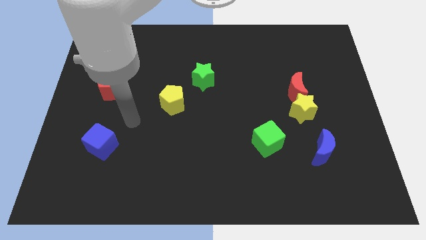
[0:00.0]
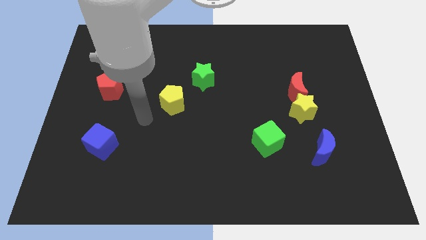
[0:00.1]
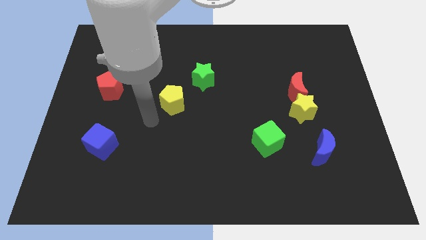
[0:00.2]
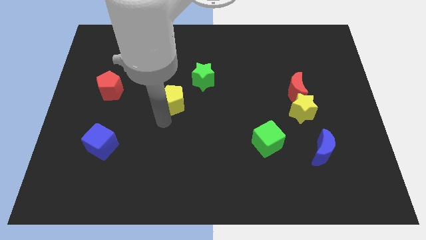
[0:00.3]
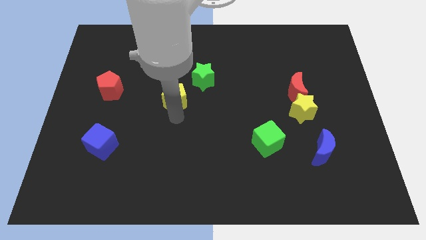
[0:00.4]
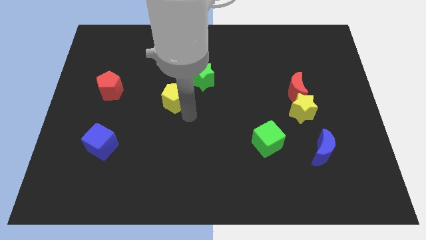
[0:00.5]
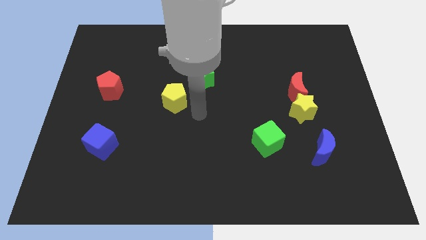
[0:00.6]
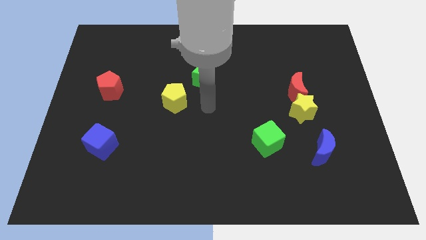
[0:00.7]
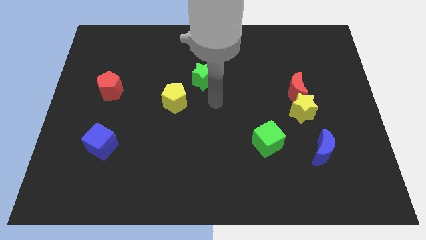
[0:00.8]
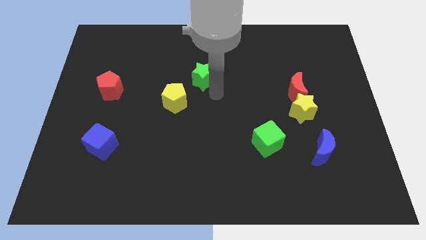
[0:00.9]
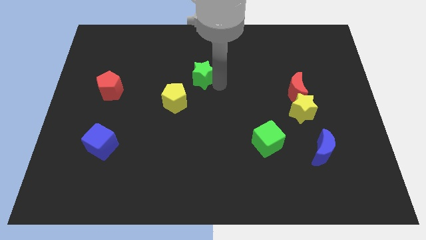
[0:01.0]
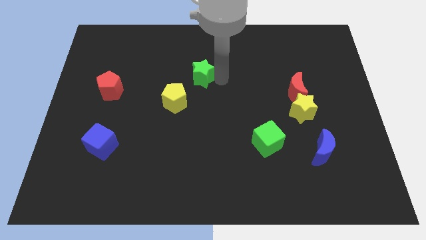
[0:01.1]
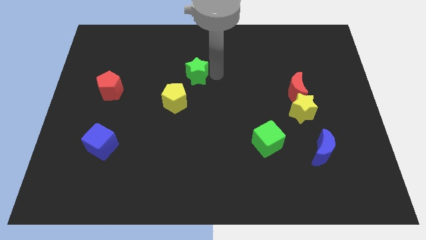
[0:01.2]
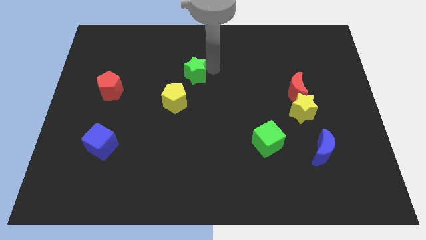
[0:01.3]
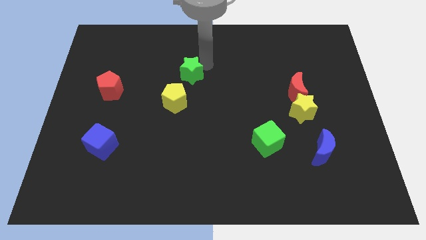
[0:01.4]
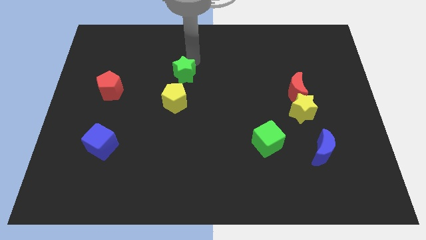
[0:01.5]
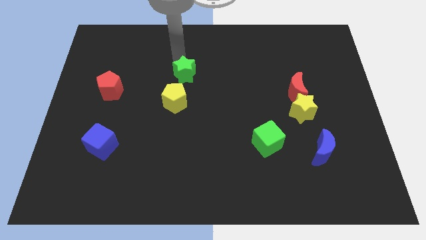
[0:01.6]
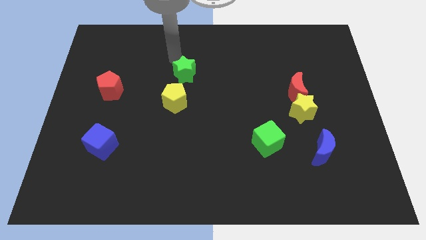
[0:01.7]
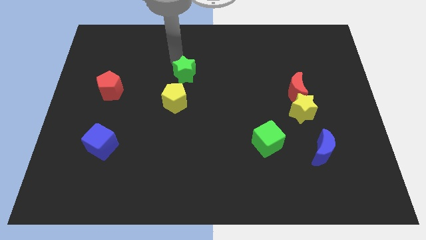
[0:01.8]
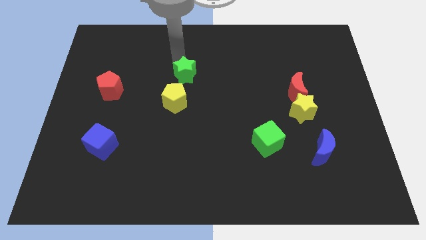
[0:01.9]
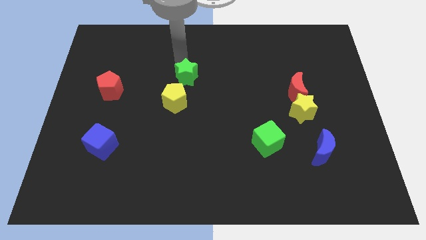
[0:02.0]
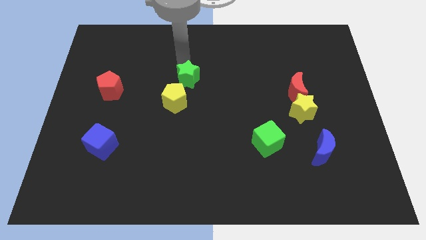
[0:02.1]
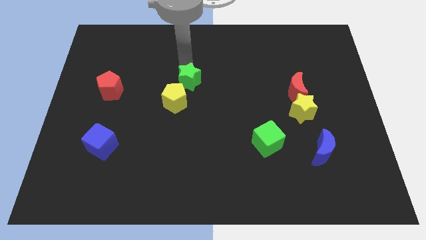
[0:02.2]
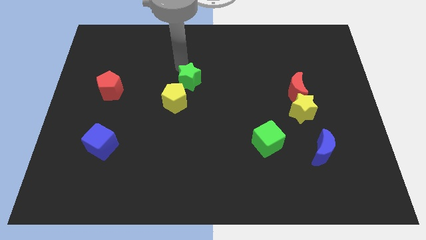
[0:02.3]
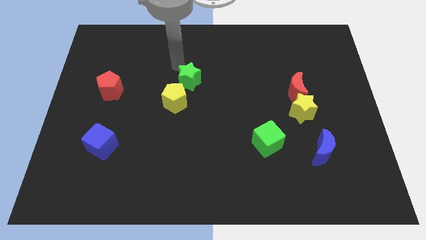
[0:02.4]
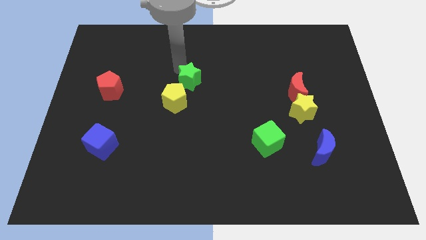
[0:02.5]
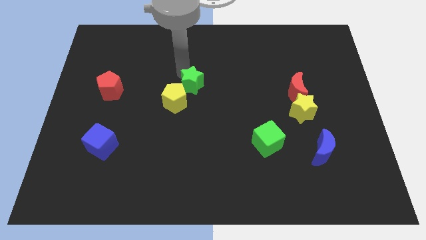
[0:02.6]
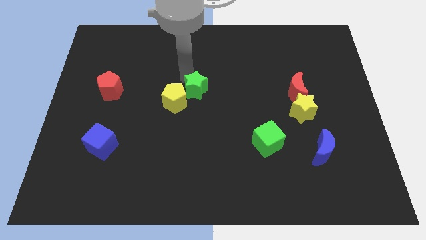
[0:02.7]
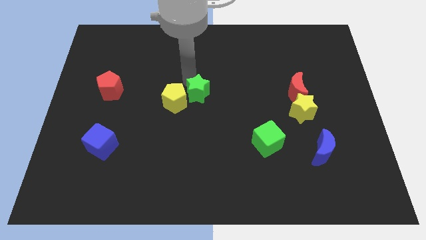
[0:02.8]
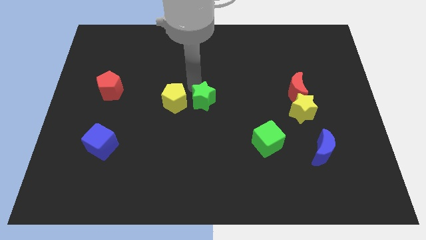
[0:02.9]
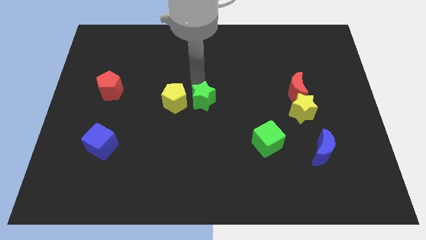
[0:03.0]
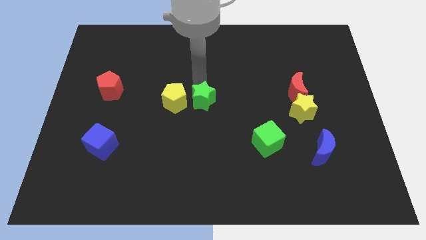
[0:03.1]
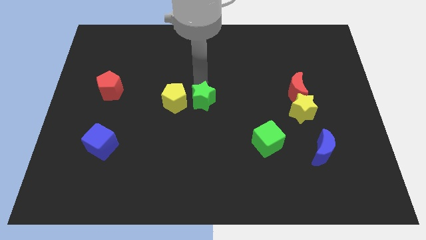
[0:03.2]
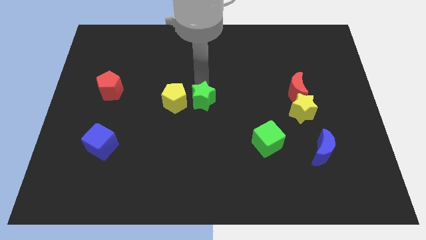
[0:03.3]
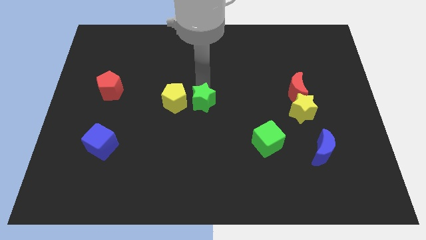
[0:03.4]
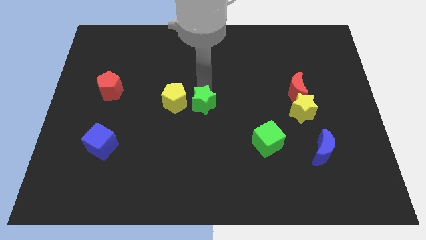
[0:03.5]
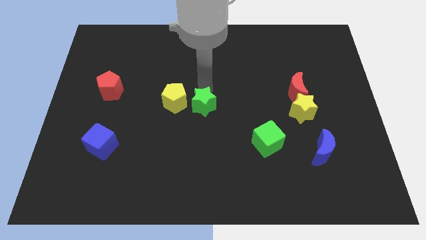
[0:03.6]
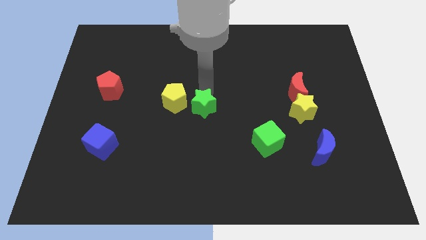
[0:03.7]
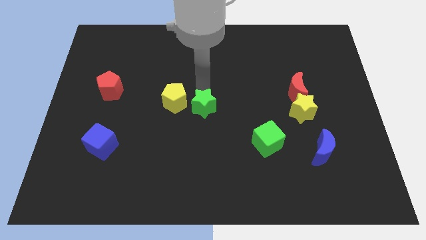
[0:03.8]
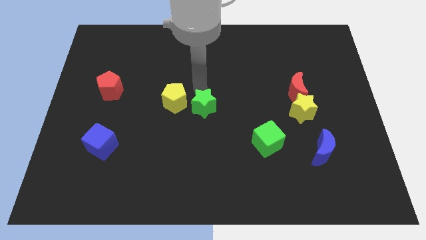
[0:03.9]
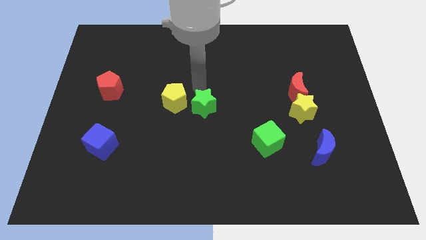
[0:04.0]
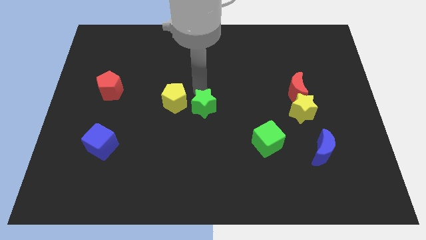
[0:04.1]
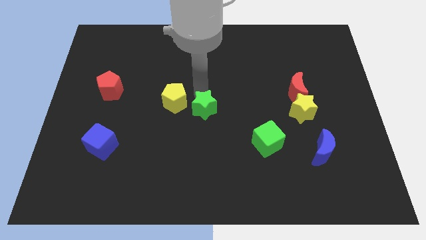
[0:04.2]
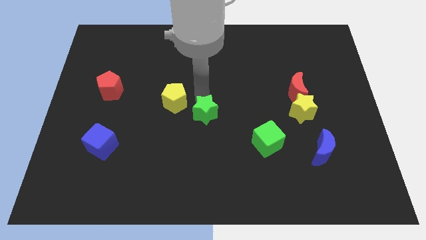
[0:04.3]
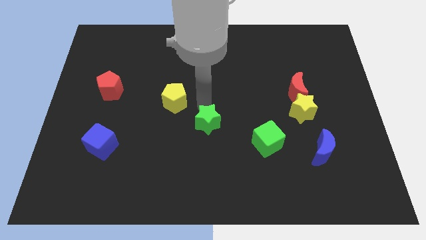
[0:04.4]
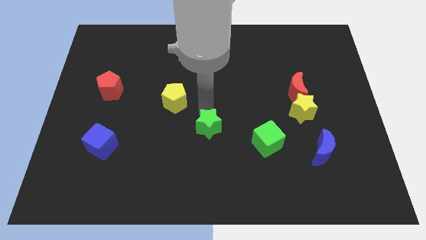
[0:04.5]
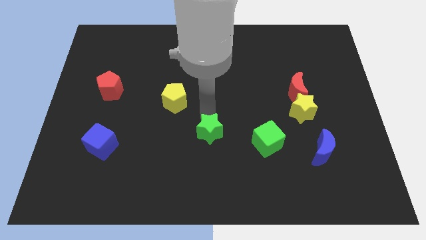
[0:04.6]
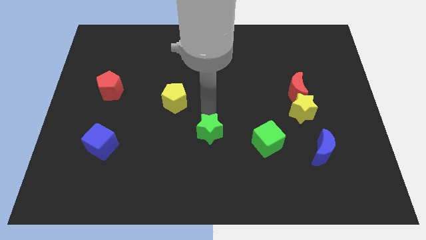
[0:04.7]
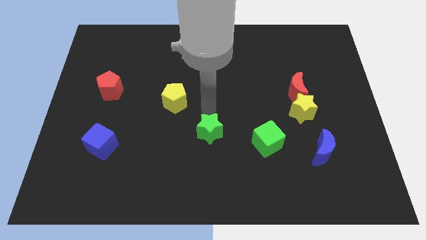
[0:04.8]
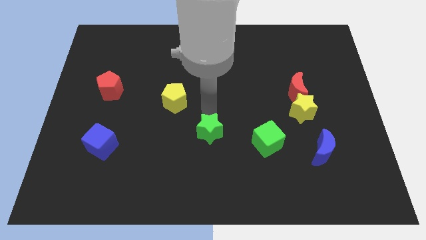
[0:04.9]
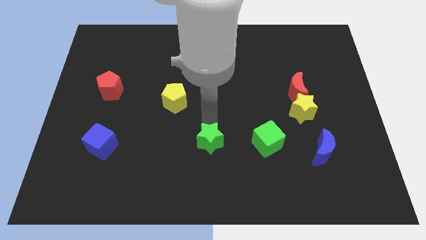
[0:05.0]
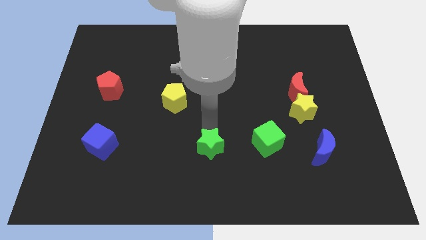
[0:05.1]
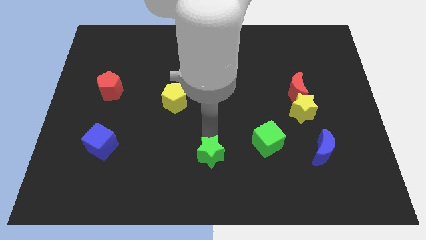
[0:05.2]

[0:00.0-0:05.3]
push the green star to the bottom

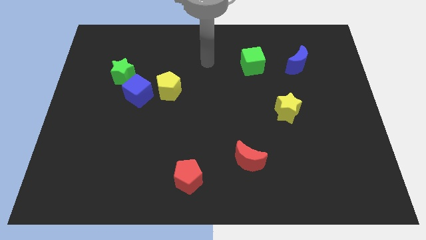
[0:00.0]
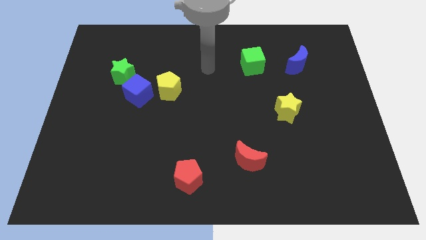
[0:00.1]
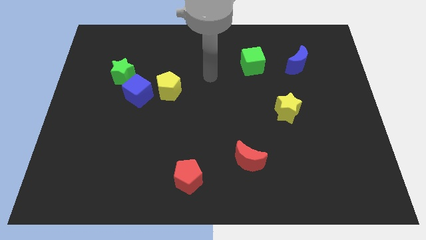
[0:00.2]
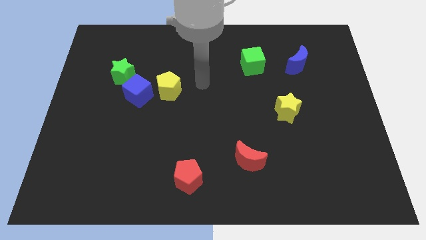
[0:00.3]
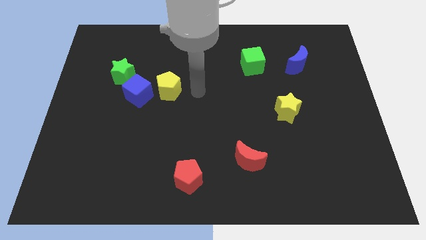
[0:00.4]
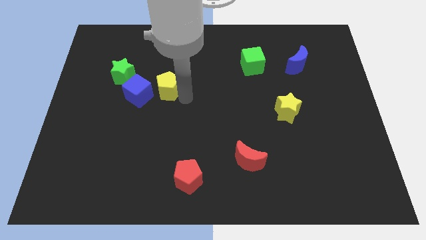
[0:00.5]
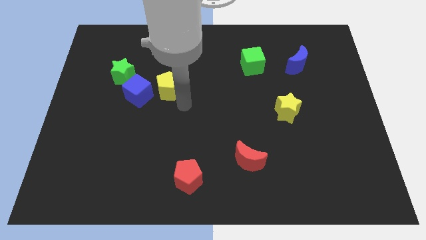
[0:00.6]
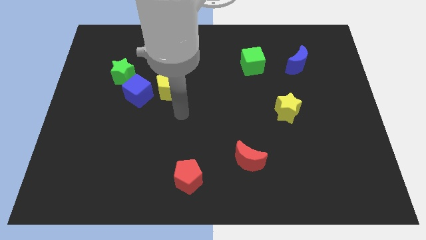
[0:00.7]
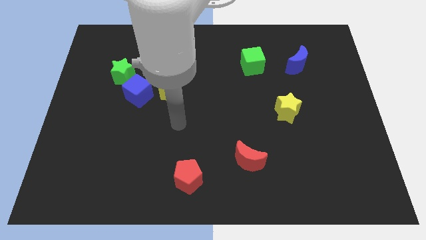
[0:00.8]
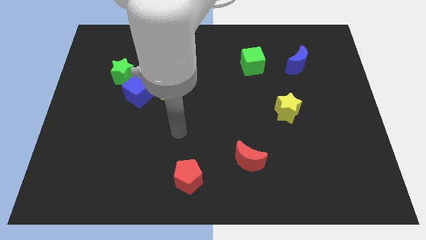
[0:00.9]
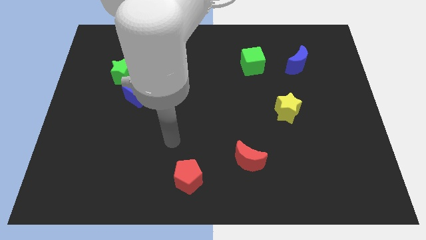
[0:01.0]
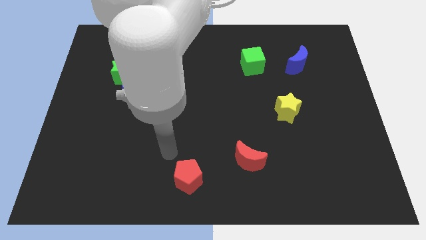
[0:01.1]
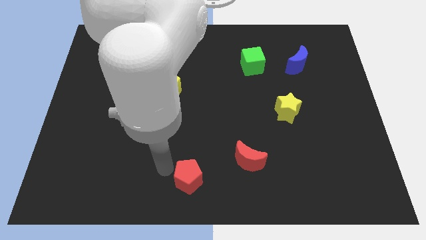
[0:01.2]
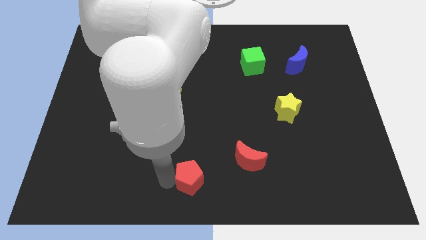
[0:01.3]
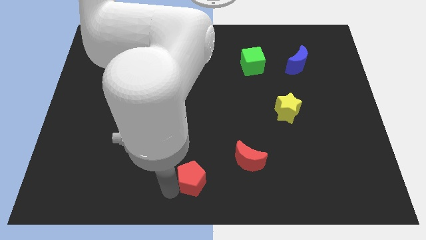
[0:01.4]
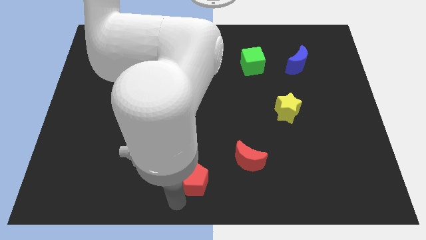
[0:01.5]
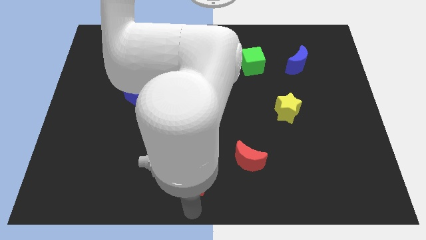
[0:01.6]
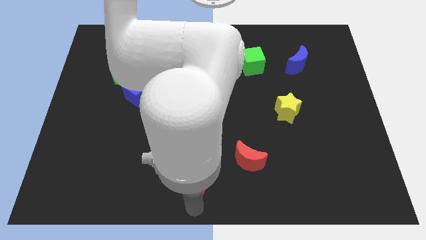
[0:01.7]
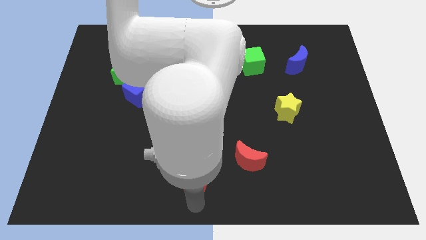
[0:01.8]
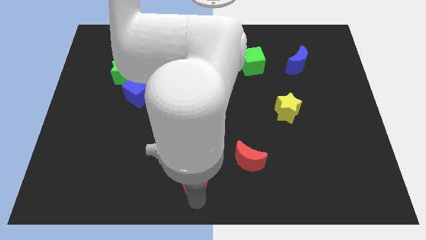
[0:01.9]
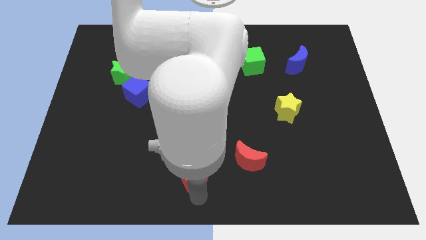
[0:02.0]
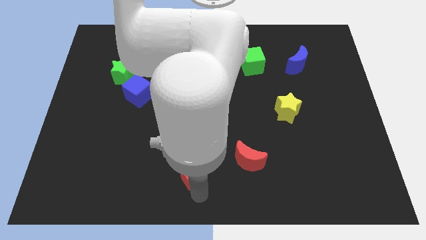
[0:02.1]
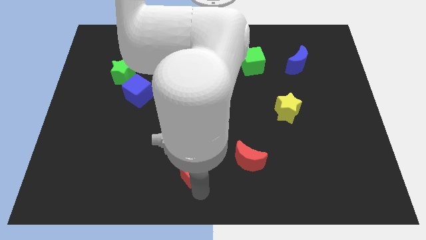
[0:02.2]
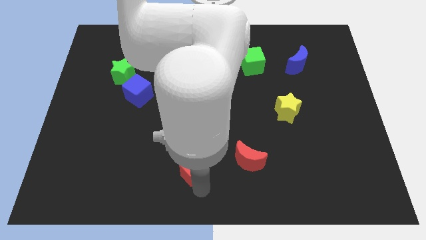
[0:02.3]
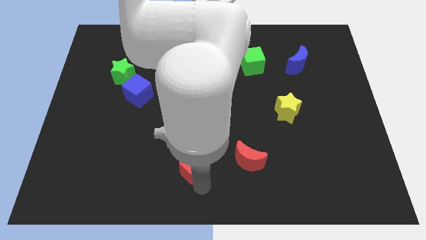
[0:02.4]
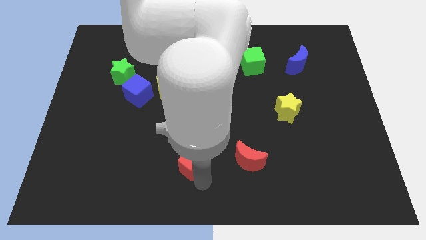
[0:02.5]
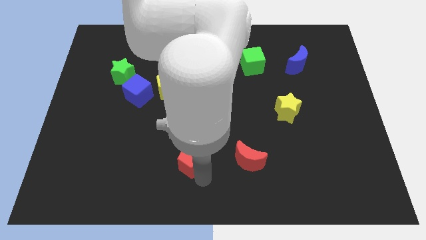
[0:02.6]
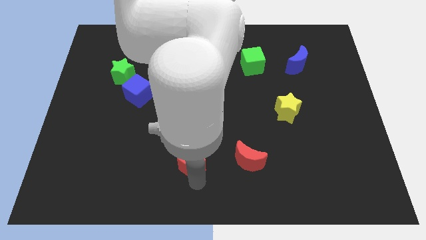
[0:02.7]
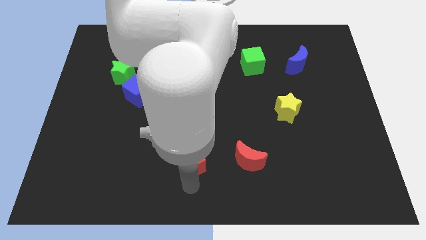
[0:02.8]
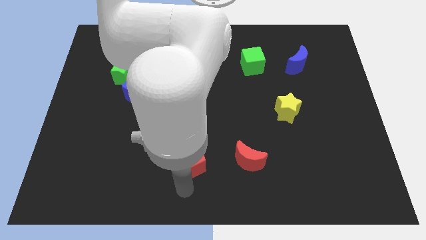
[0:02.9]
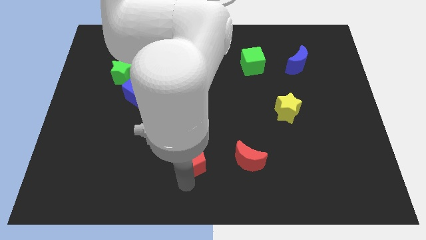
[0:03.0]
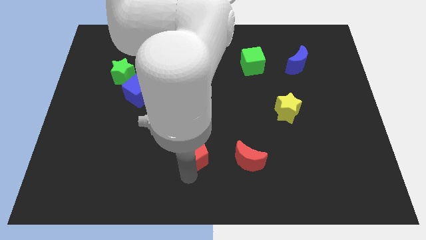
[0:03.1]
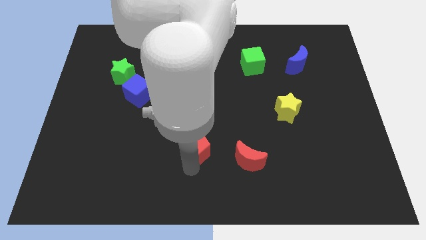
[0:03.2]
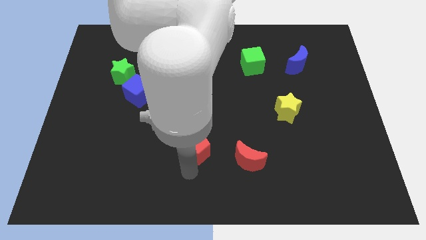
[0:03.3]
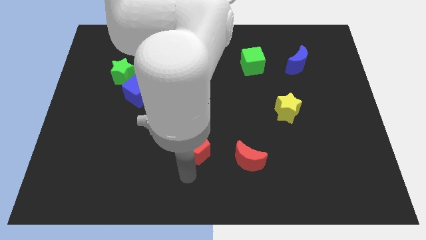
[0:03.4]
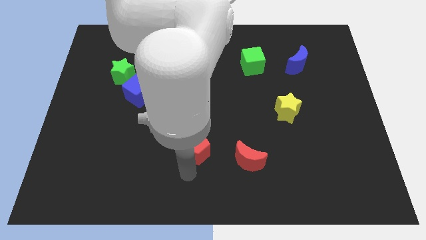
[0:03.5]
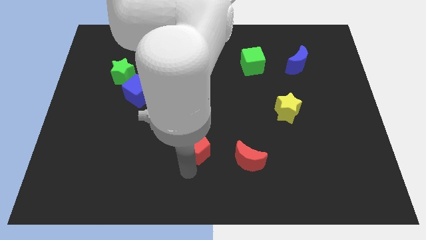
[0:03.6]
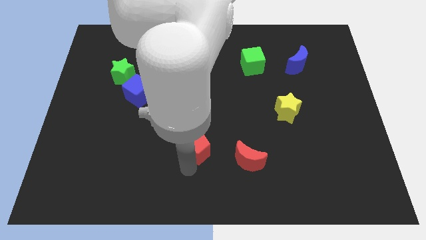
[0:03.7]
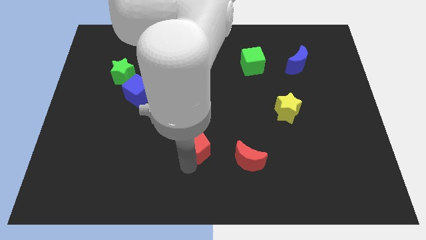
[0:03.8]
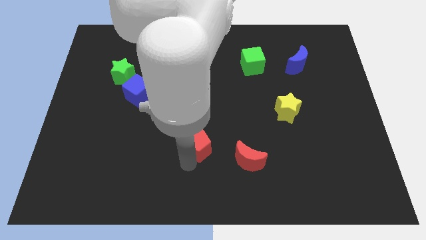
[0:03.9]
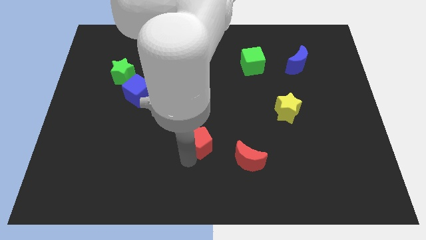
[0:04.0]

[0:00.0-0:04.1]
push the red pentagon to the middle of the board
